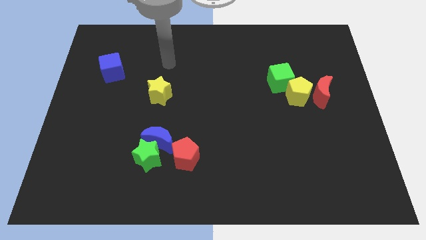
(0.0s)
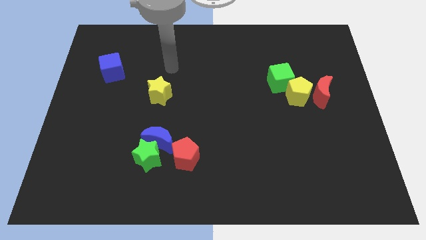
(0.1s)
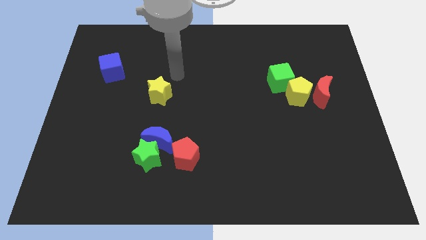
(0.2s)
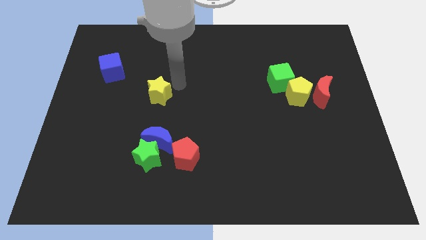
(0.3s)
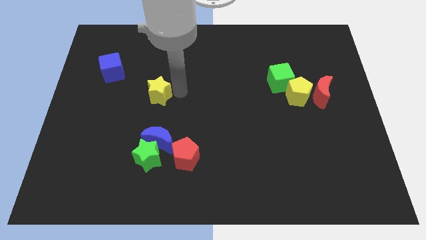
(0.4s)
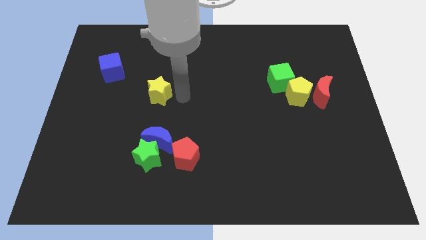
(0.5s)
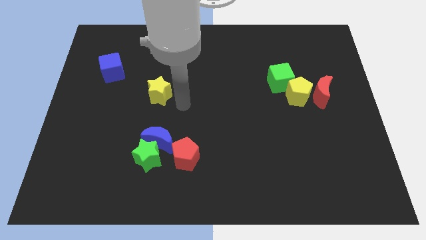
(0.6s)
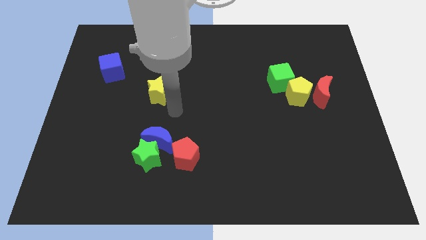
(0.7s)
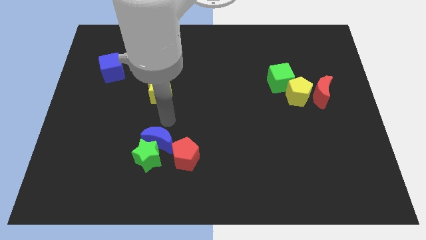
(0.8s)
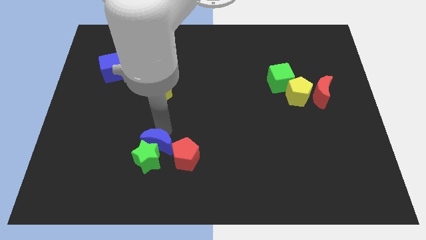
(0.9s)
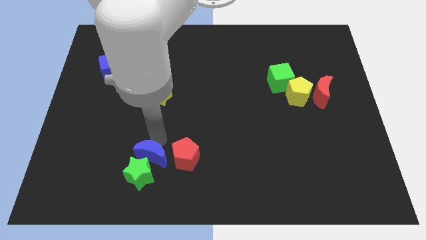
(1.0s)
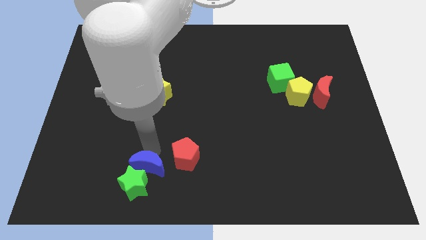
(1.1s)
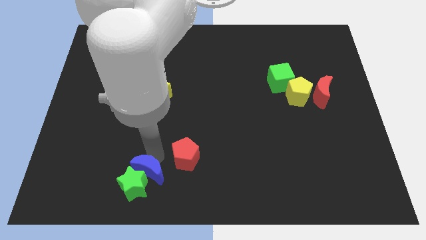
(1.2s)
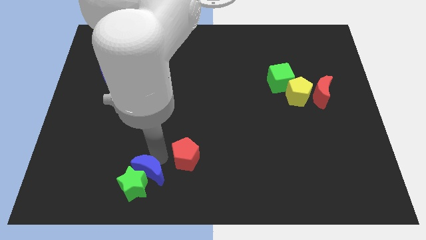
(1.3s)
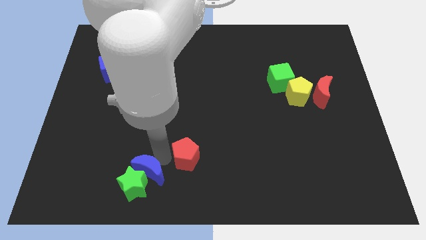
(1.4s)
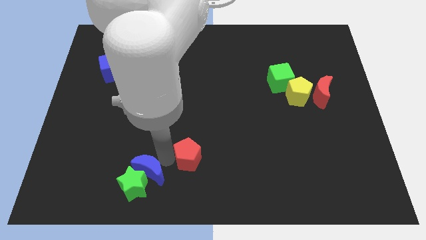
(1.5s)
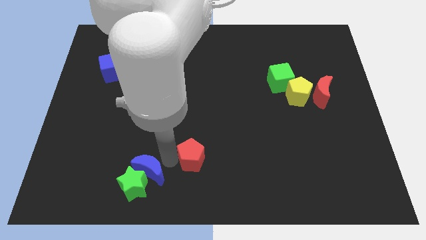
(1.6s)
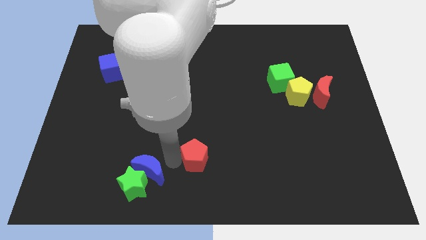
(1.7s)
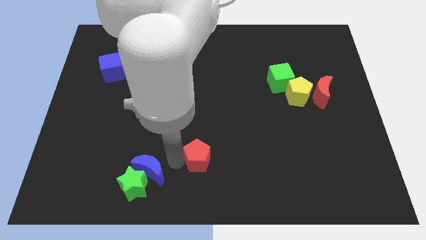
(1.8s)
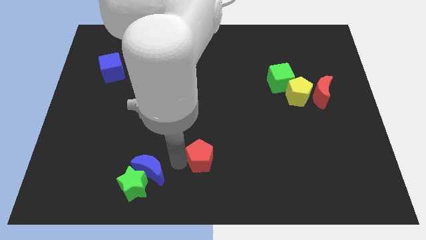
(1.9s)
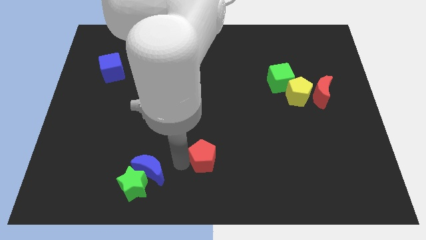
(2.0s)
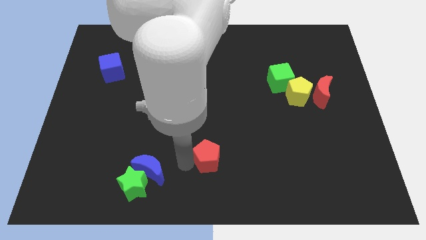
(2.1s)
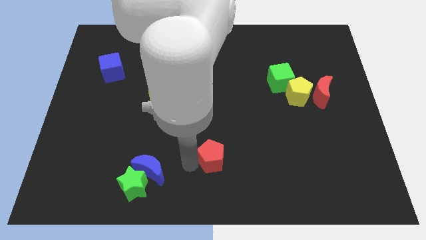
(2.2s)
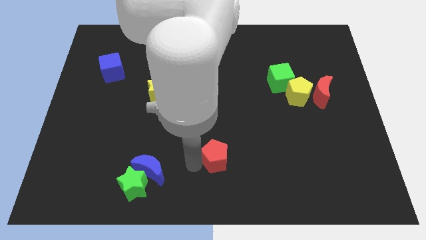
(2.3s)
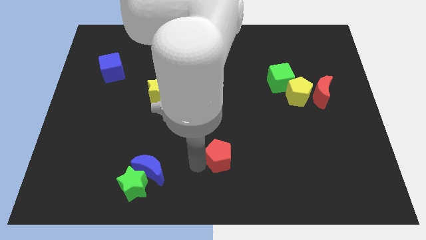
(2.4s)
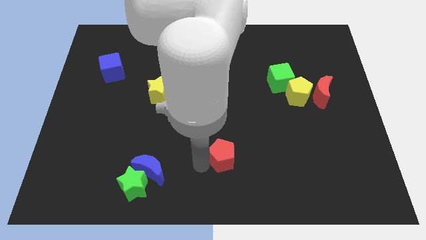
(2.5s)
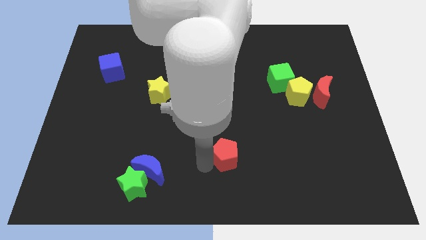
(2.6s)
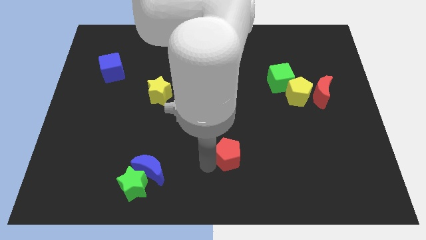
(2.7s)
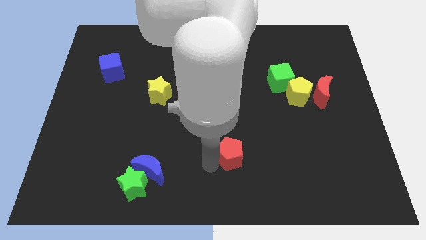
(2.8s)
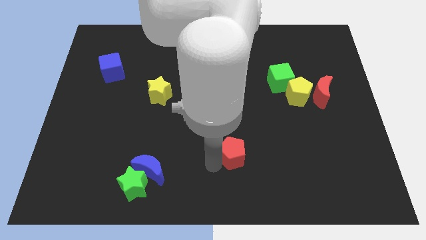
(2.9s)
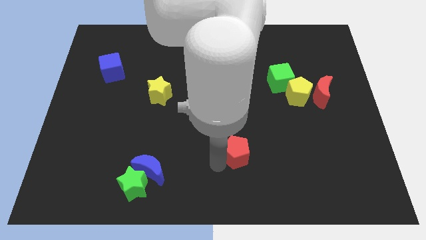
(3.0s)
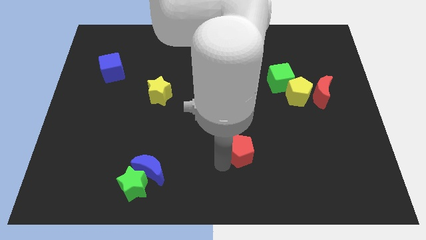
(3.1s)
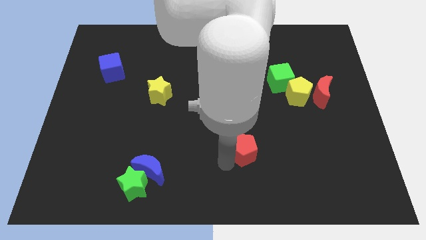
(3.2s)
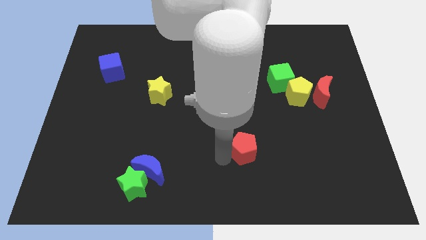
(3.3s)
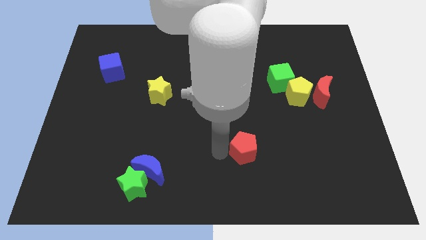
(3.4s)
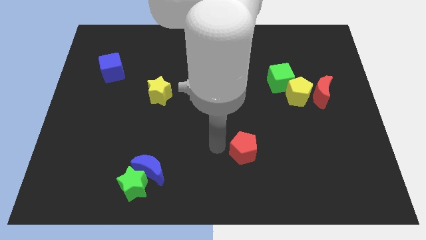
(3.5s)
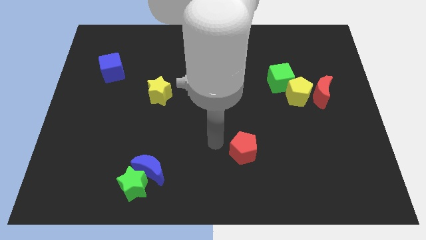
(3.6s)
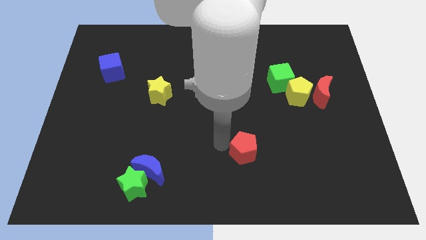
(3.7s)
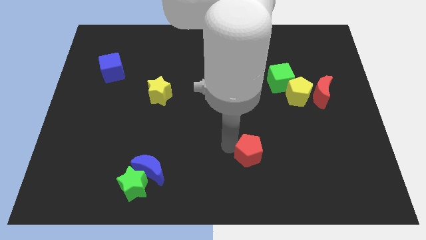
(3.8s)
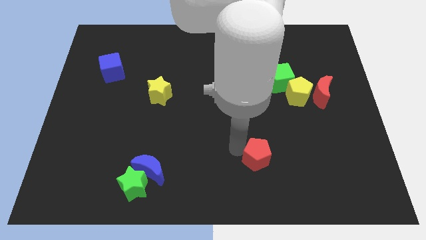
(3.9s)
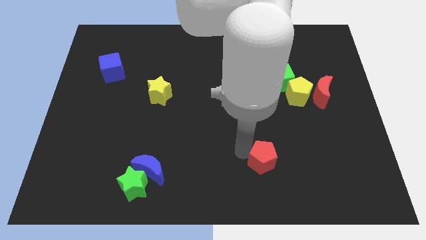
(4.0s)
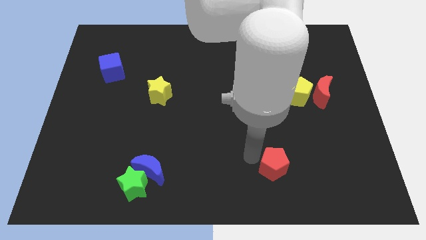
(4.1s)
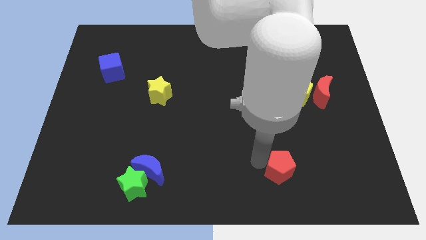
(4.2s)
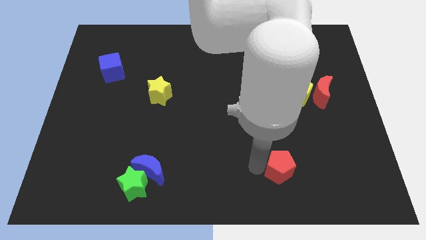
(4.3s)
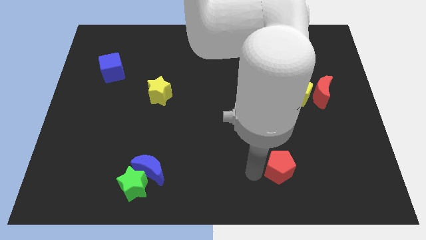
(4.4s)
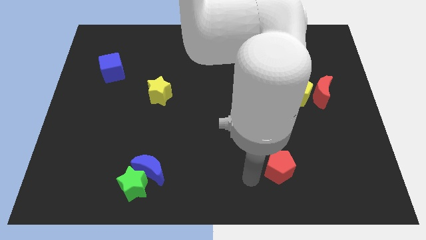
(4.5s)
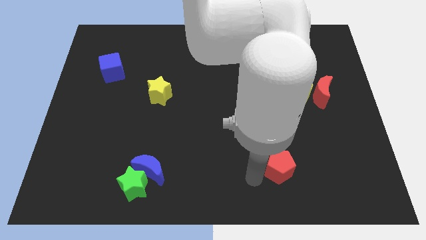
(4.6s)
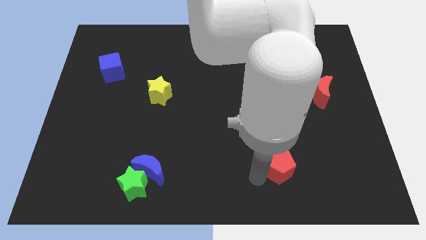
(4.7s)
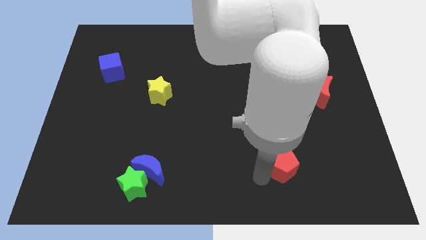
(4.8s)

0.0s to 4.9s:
slide the red pentagon right

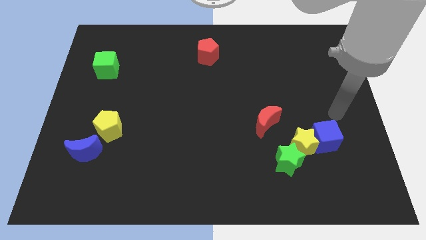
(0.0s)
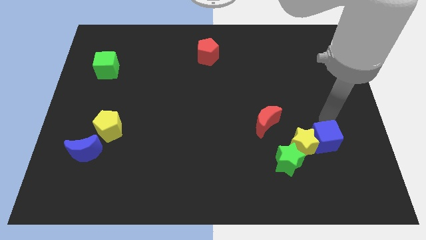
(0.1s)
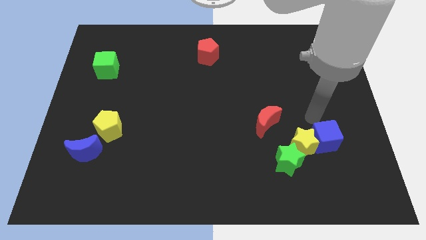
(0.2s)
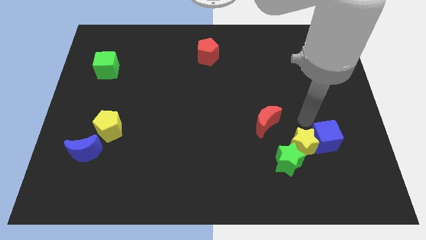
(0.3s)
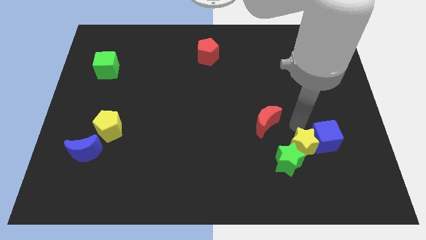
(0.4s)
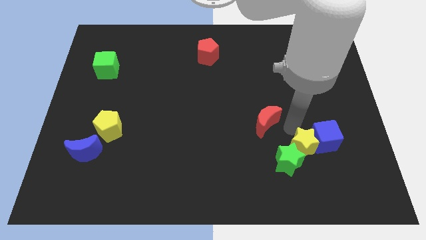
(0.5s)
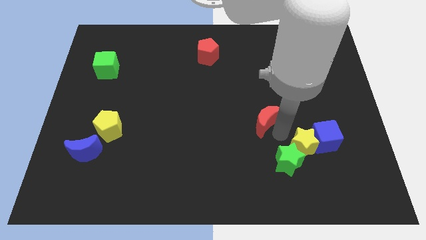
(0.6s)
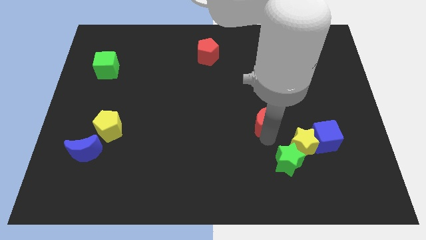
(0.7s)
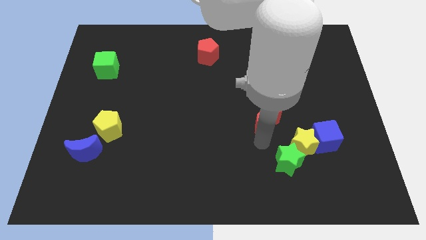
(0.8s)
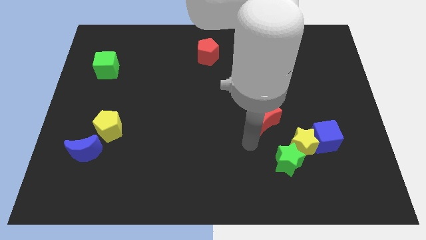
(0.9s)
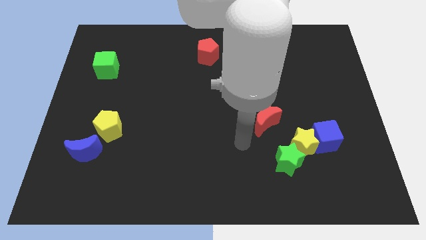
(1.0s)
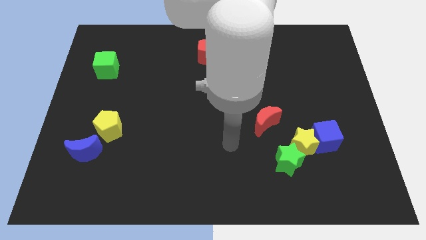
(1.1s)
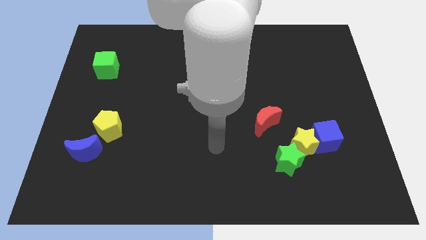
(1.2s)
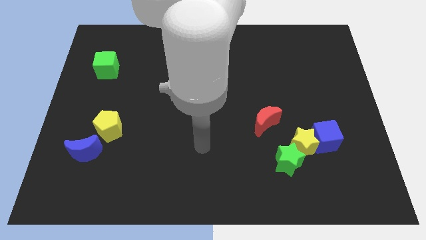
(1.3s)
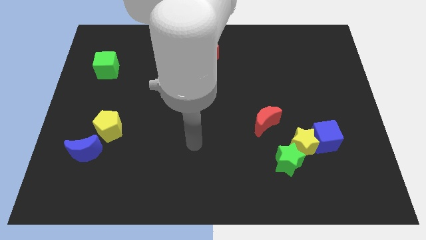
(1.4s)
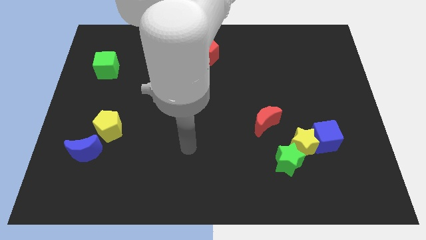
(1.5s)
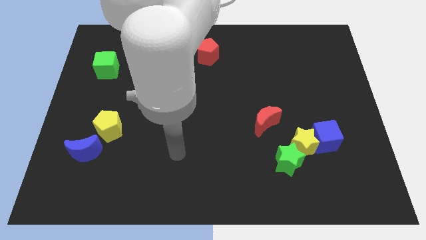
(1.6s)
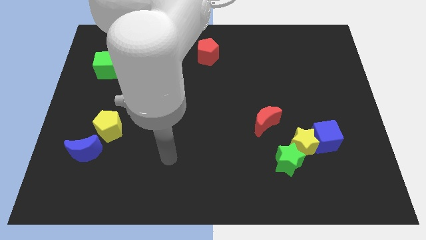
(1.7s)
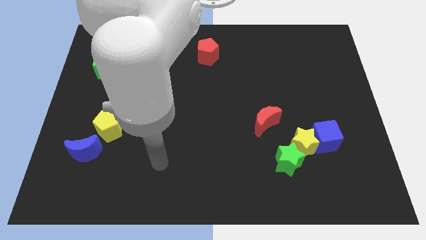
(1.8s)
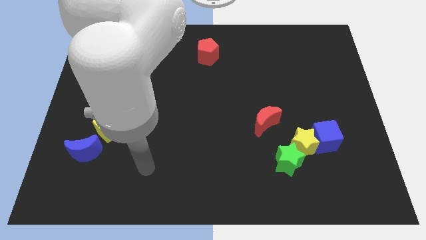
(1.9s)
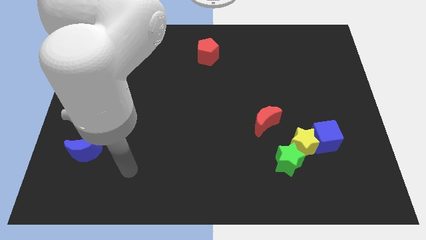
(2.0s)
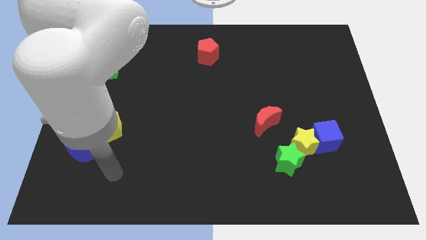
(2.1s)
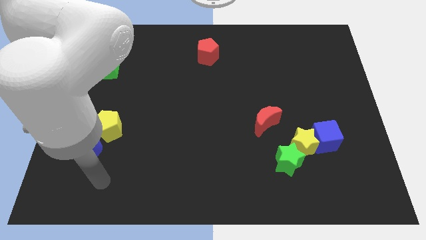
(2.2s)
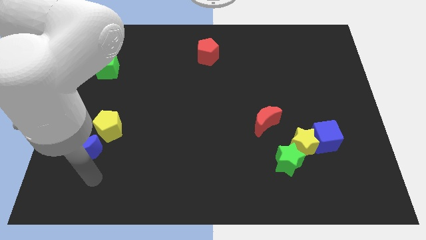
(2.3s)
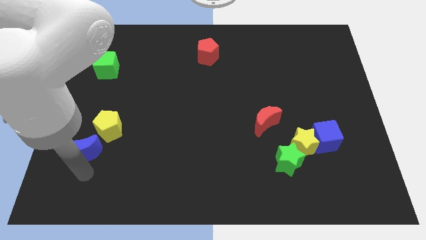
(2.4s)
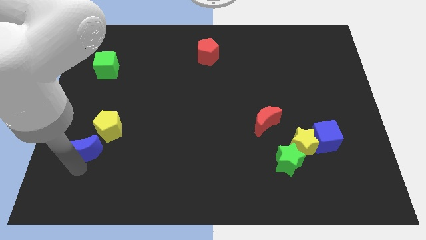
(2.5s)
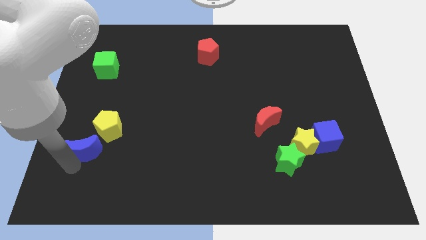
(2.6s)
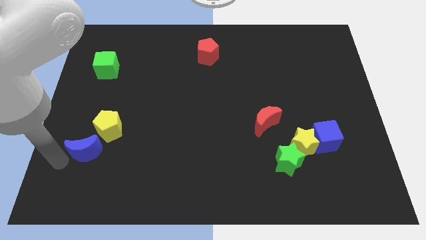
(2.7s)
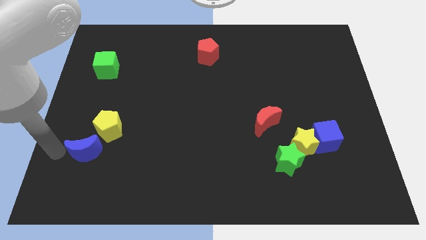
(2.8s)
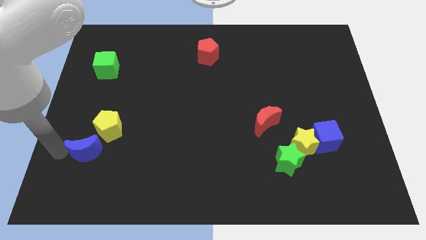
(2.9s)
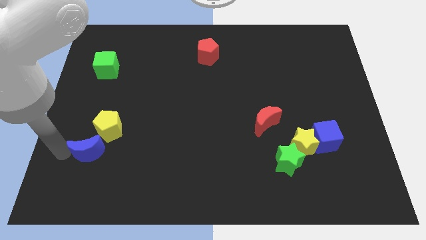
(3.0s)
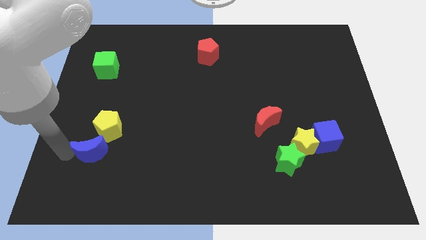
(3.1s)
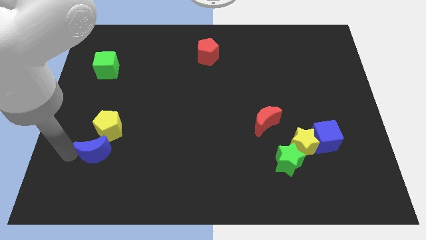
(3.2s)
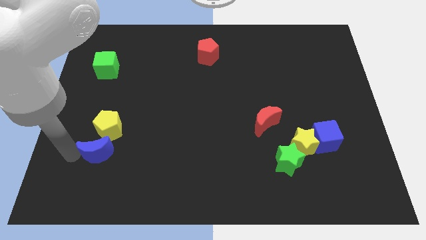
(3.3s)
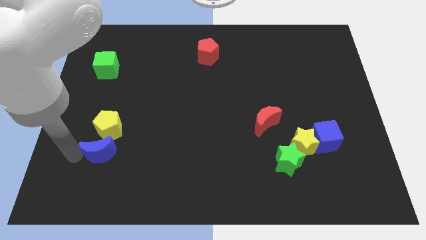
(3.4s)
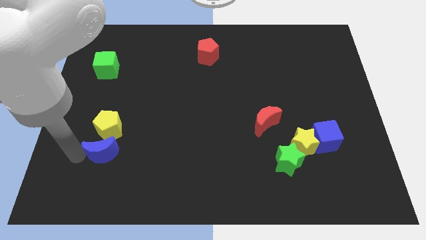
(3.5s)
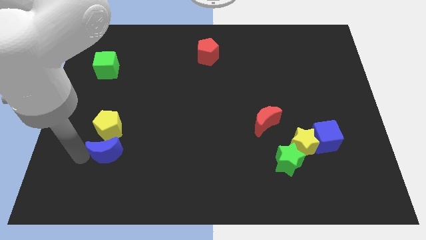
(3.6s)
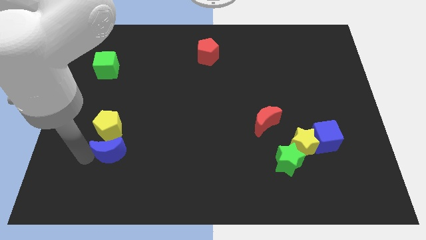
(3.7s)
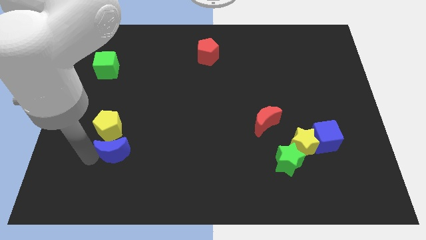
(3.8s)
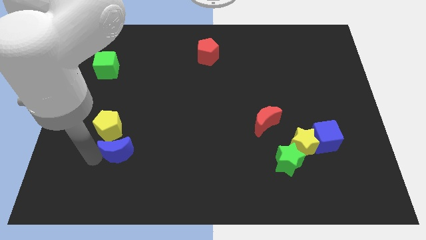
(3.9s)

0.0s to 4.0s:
slightly push the blue moon to the right
